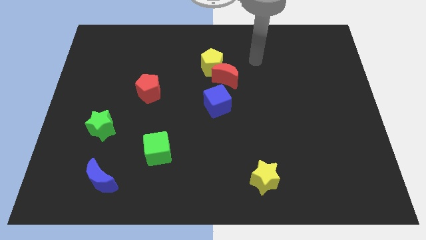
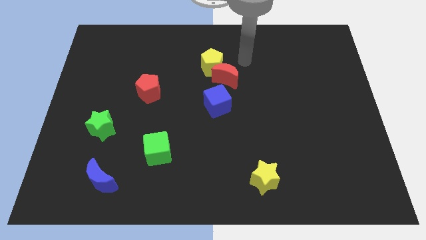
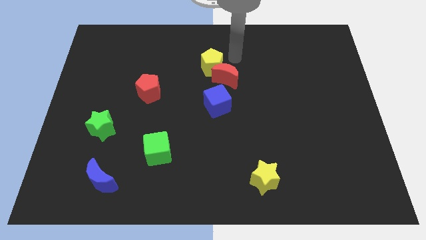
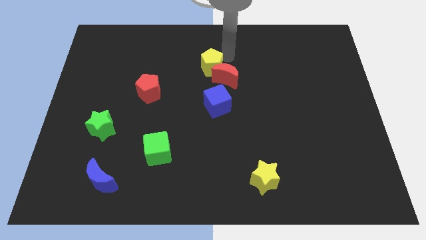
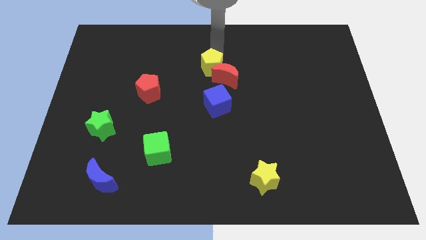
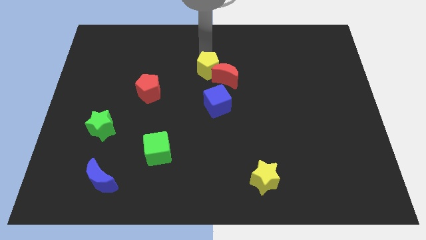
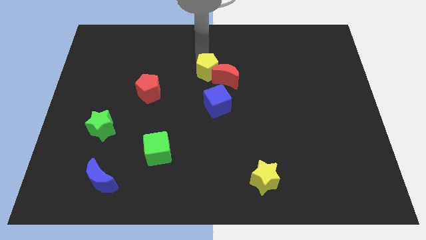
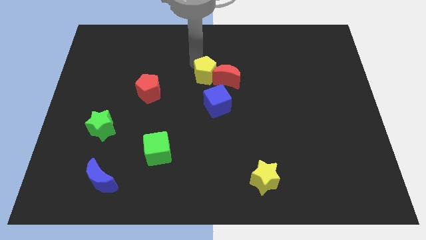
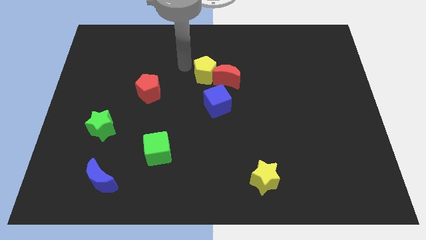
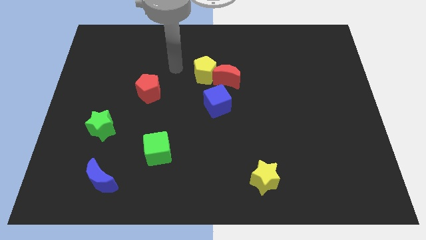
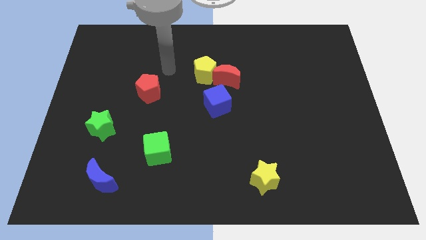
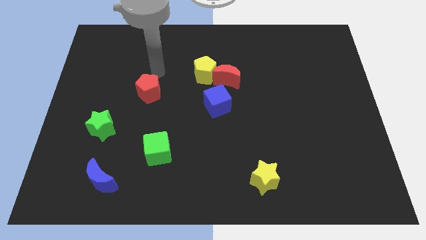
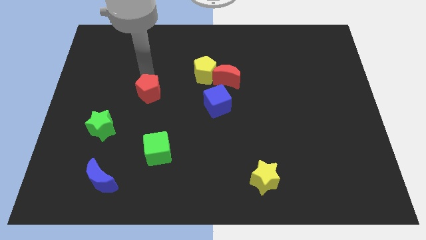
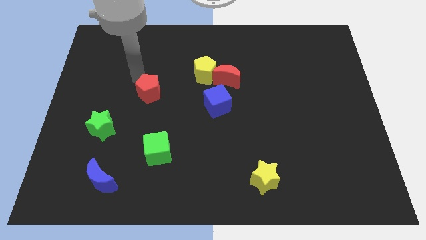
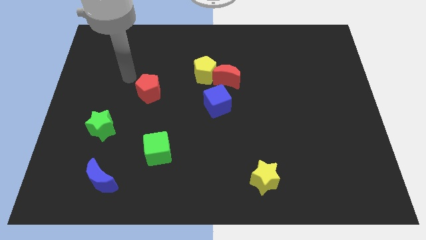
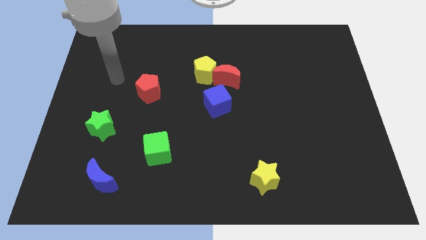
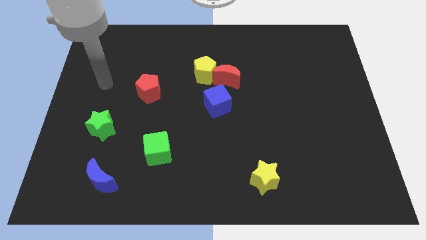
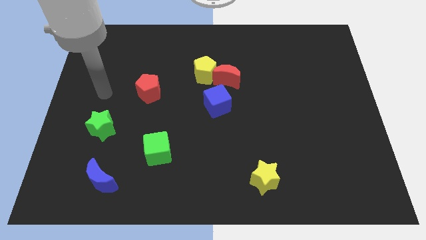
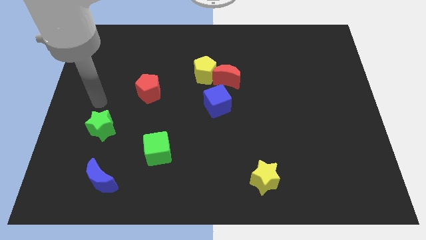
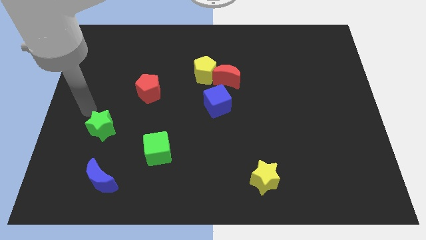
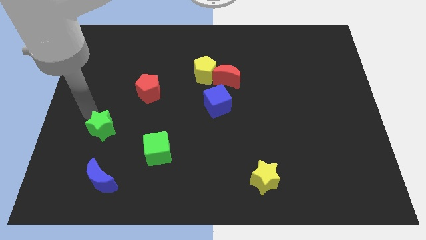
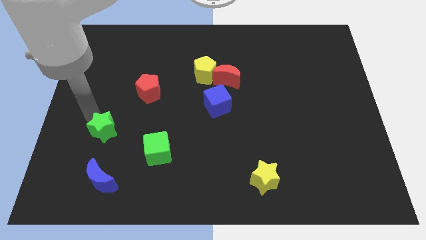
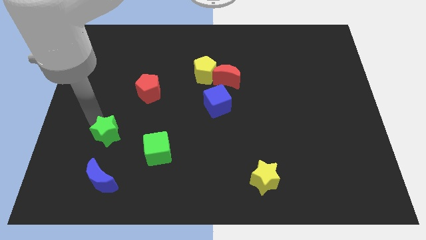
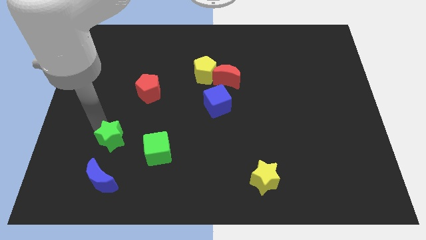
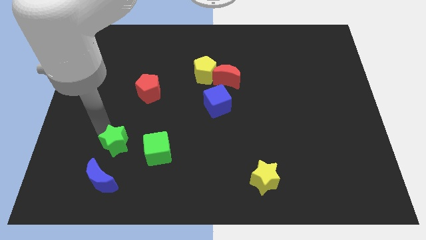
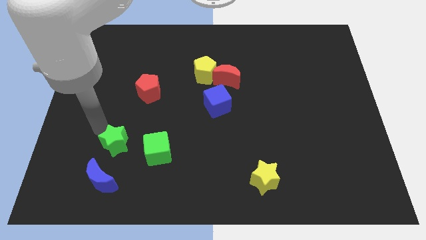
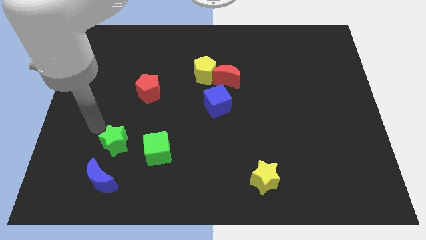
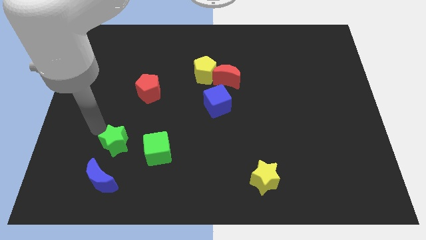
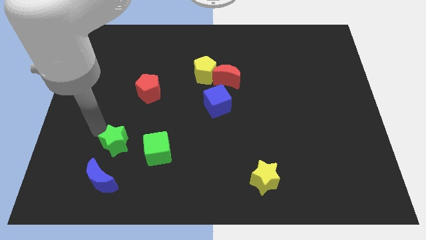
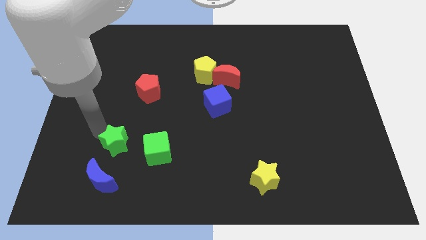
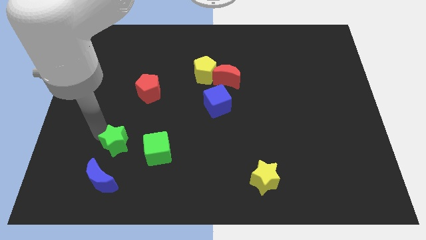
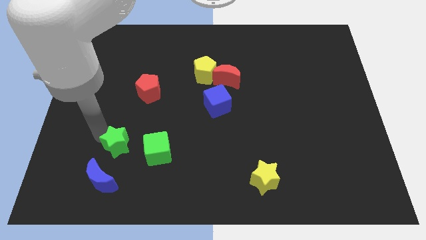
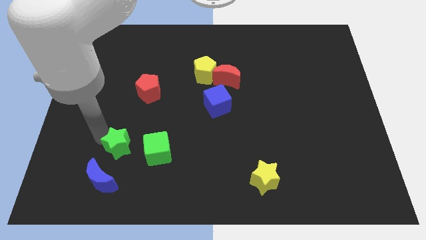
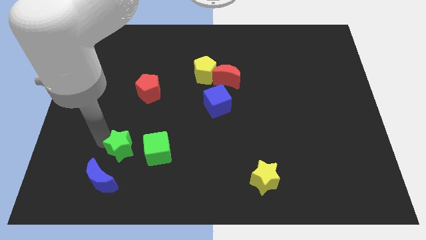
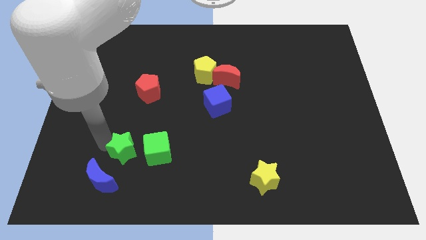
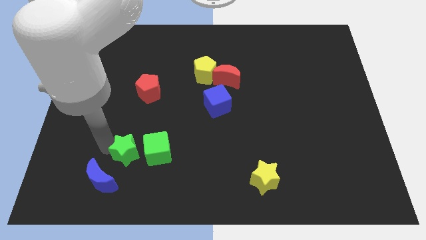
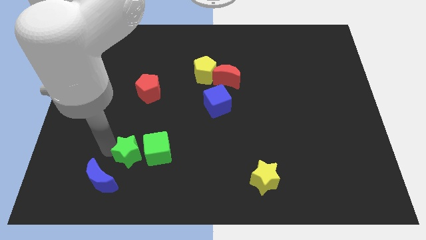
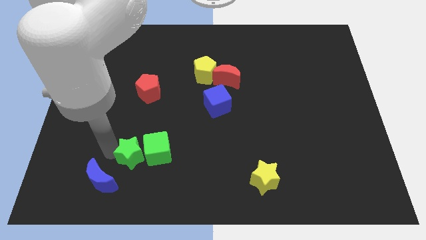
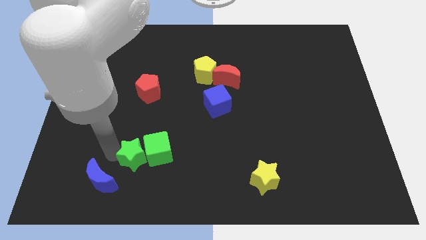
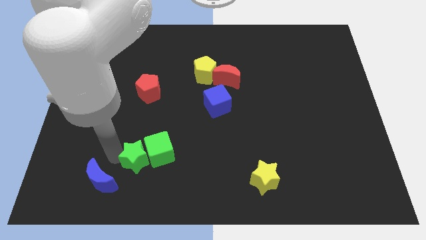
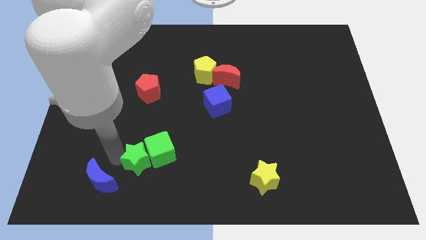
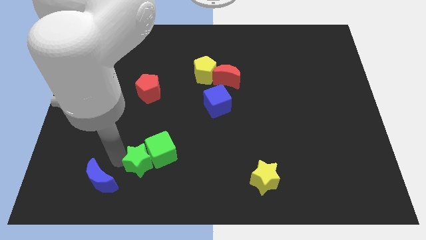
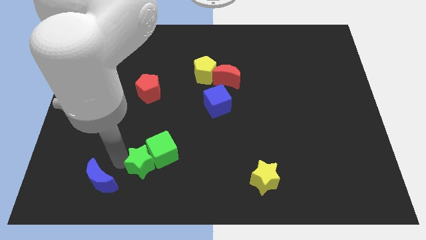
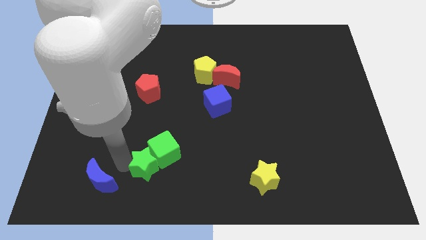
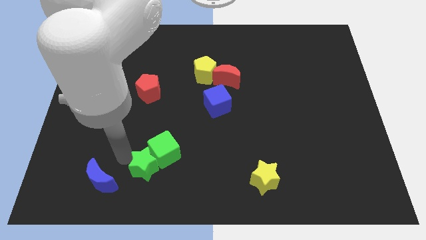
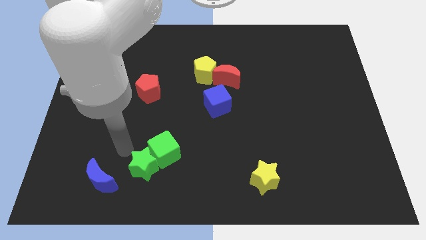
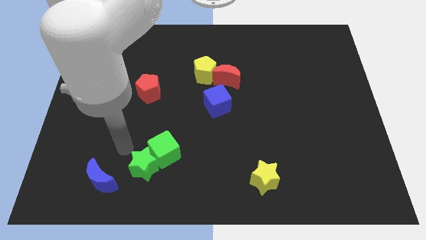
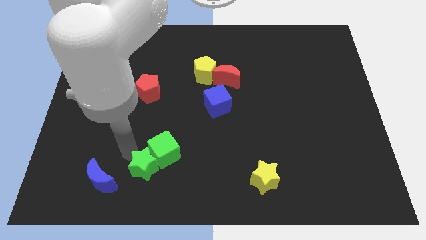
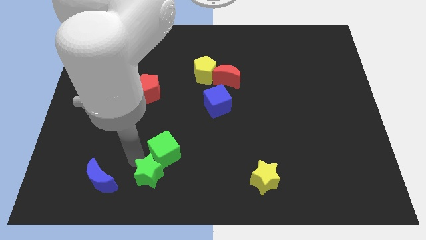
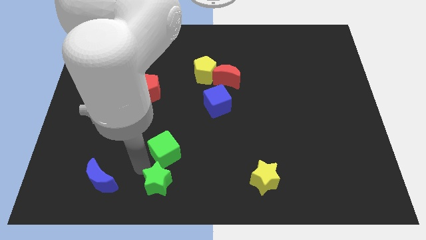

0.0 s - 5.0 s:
put the green star to the bottom

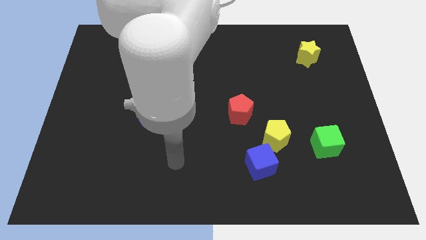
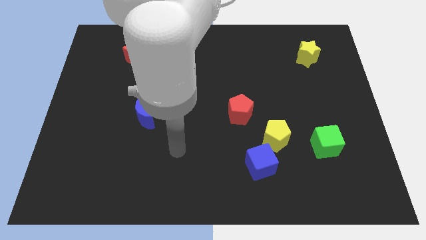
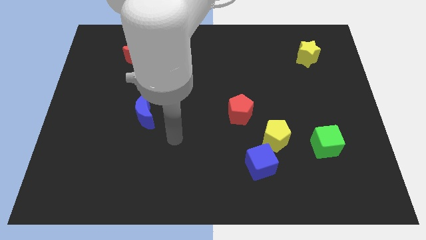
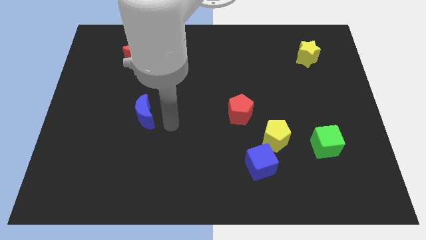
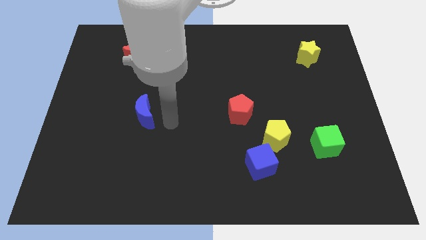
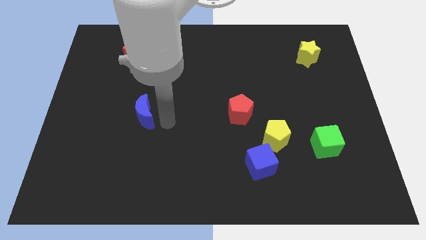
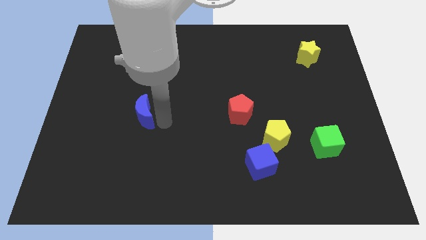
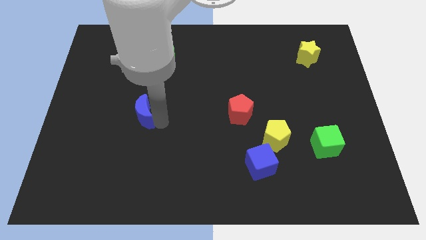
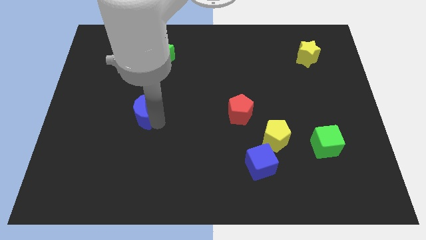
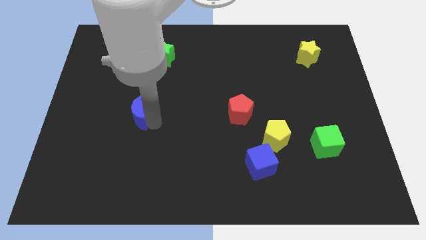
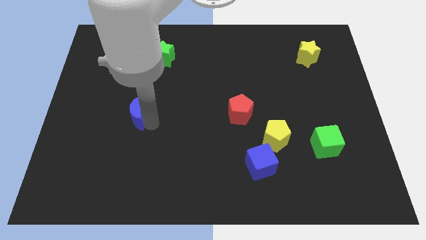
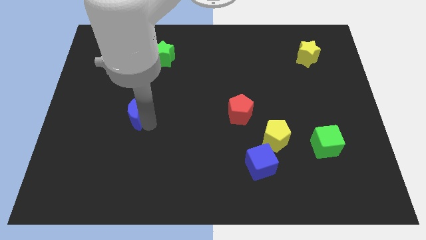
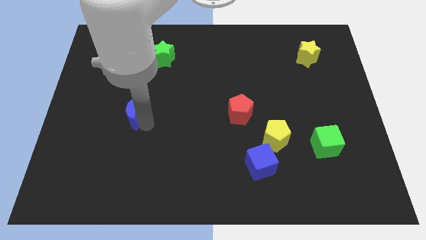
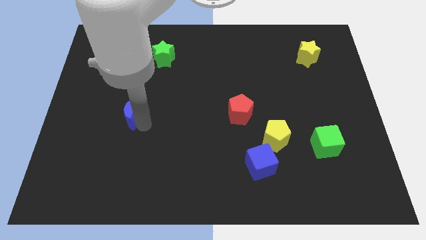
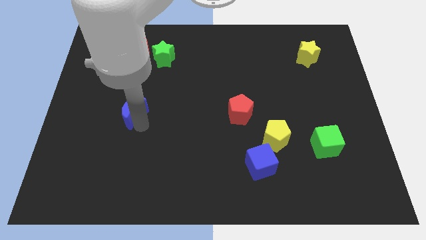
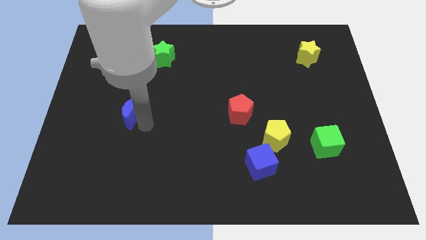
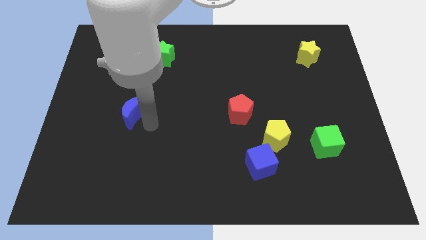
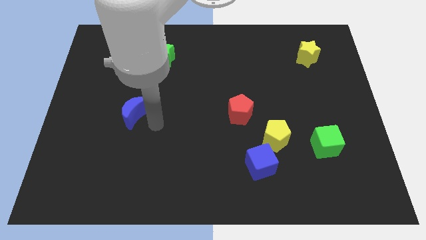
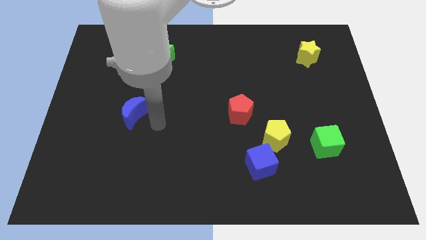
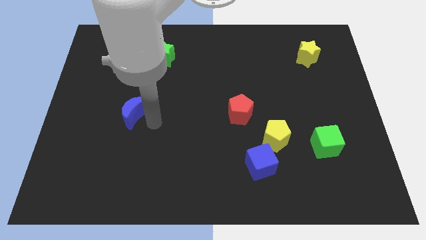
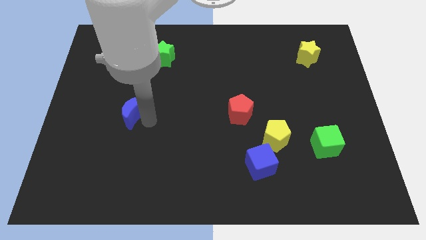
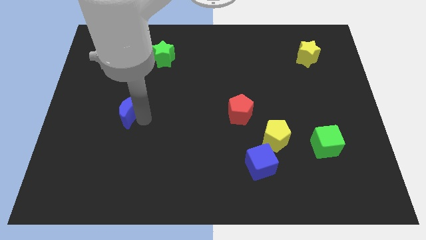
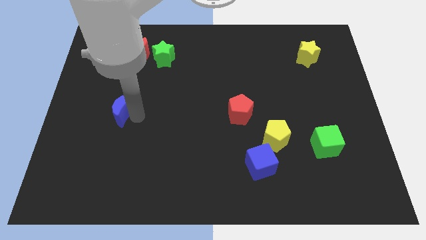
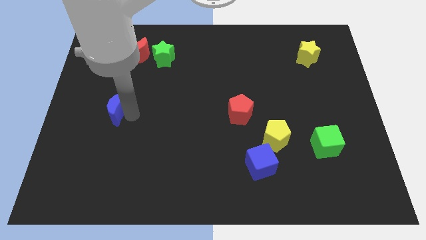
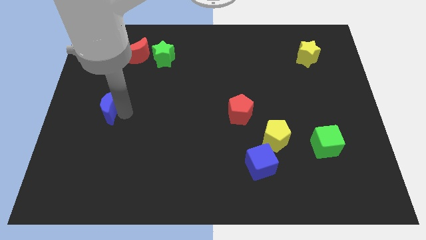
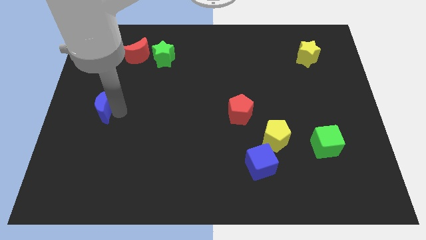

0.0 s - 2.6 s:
move the blue moon to the center left
